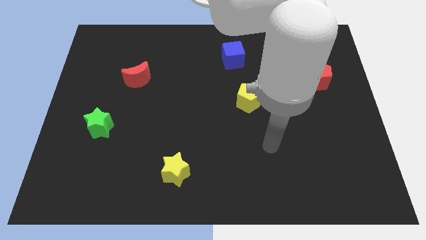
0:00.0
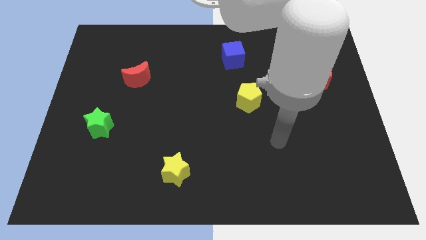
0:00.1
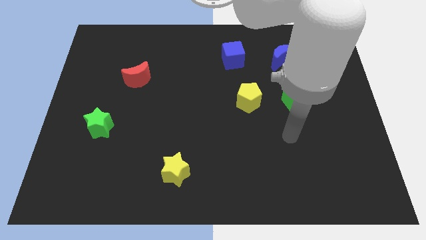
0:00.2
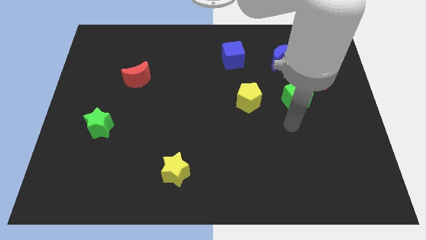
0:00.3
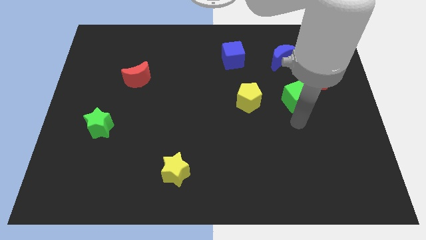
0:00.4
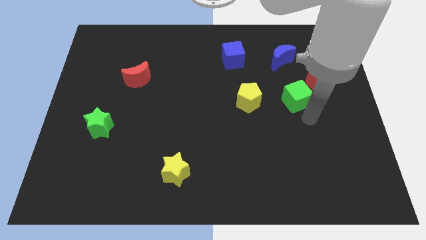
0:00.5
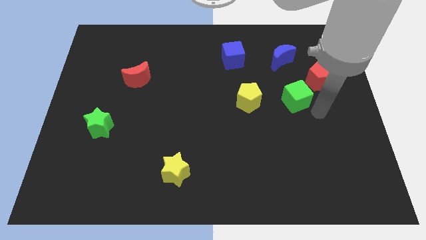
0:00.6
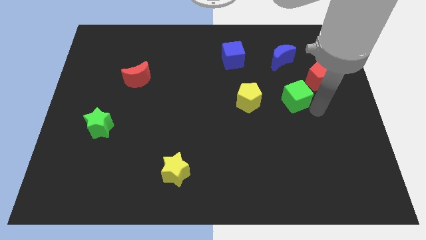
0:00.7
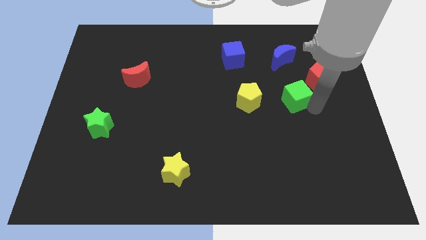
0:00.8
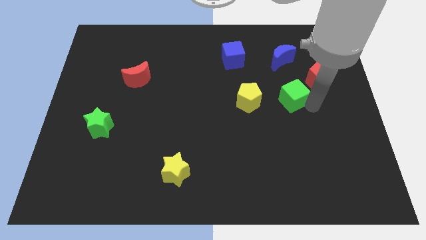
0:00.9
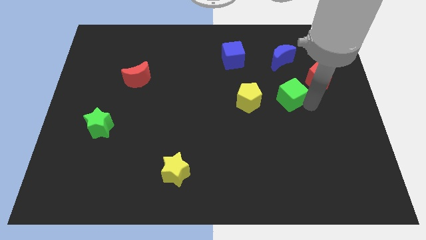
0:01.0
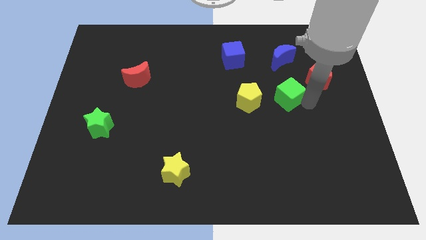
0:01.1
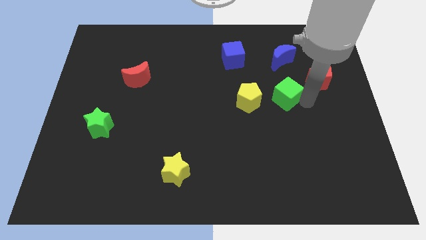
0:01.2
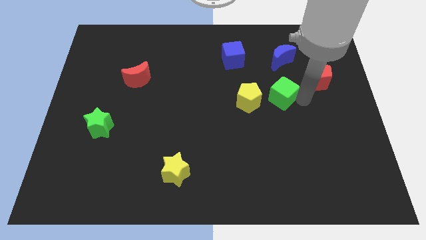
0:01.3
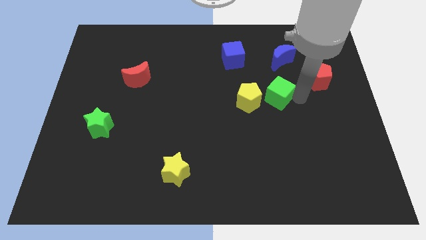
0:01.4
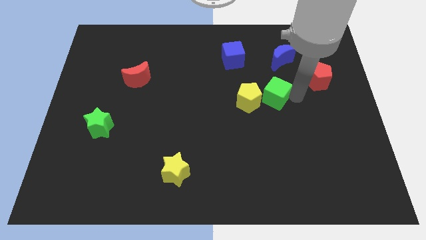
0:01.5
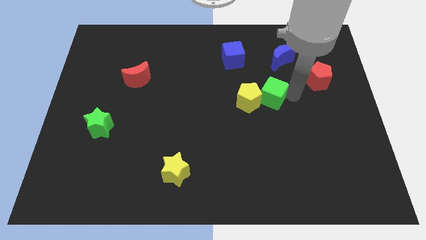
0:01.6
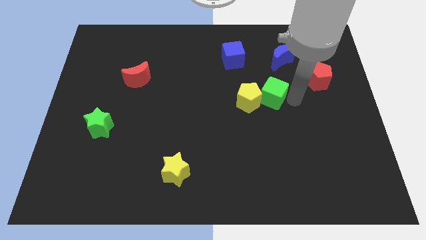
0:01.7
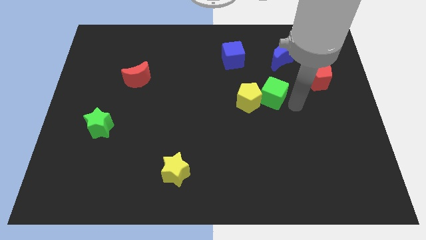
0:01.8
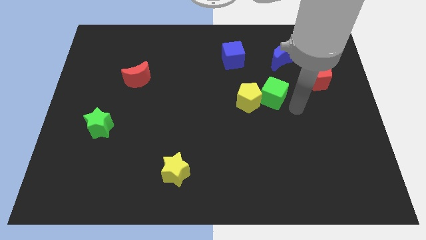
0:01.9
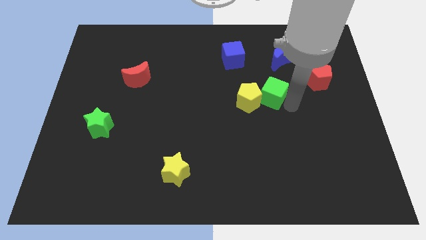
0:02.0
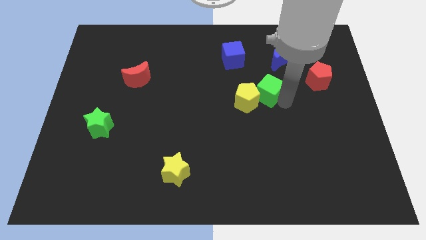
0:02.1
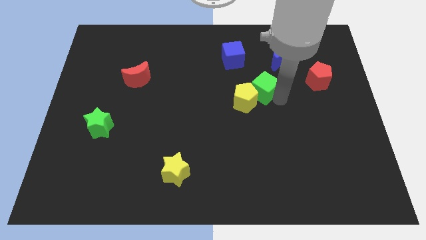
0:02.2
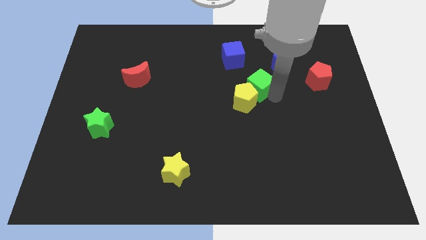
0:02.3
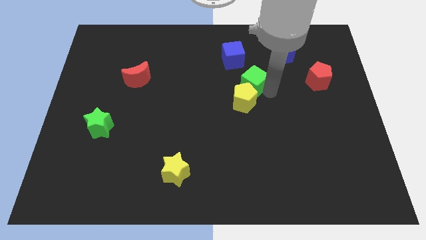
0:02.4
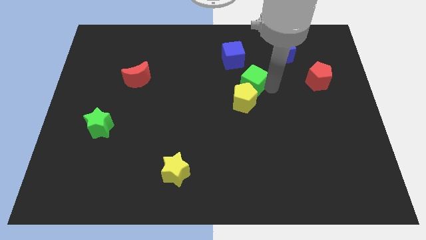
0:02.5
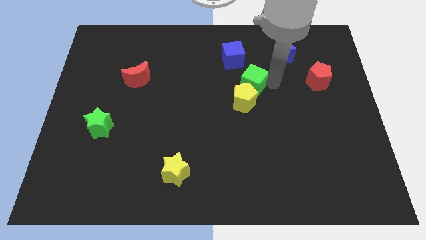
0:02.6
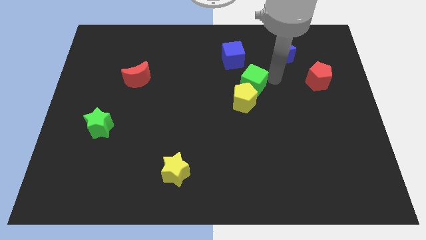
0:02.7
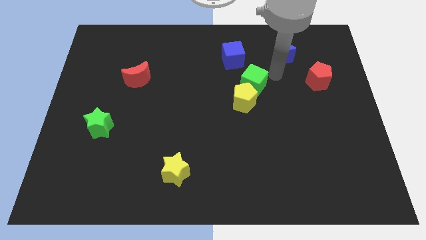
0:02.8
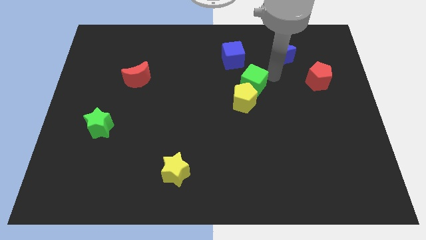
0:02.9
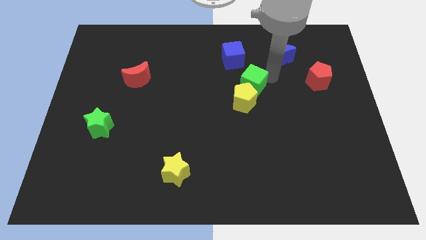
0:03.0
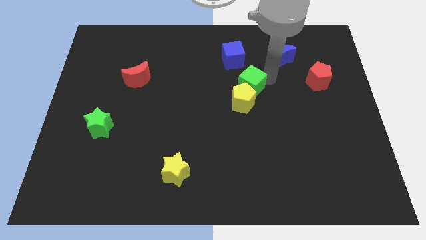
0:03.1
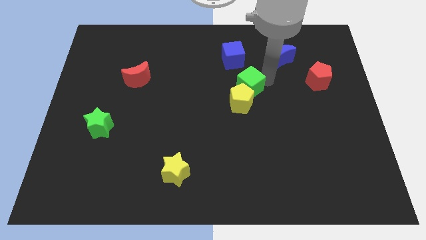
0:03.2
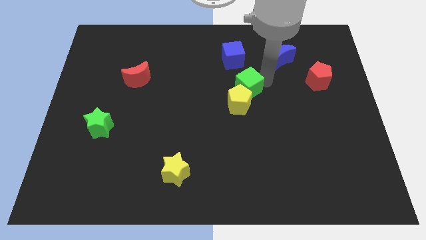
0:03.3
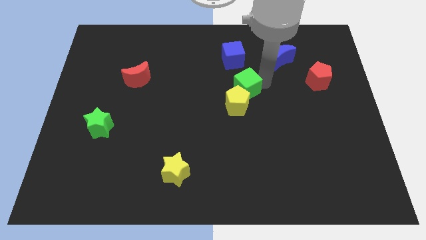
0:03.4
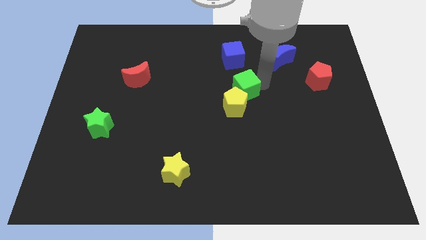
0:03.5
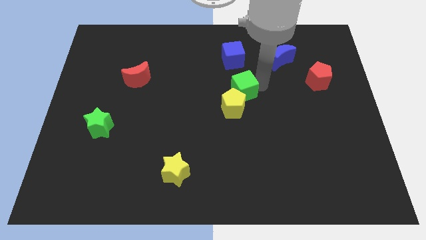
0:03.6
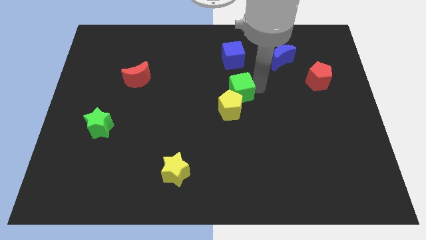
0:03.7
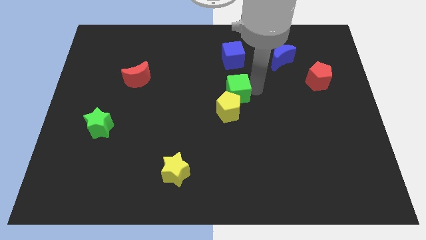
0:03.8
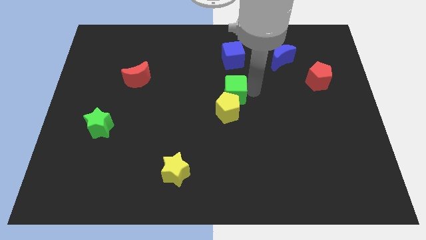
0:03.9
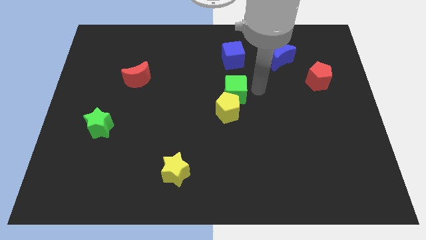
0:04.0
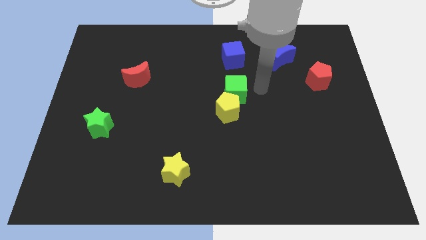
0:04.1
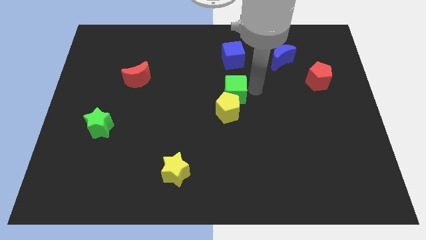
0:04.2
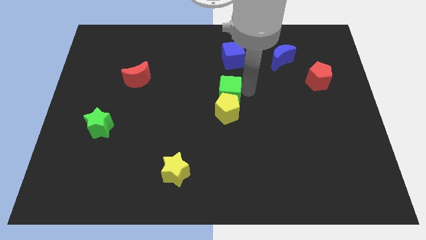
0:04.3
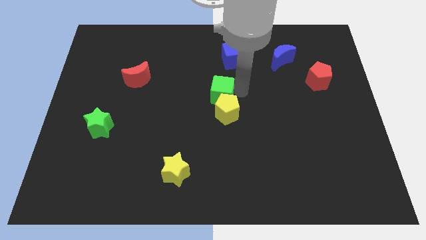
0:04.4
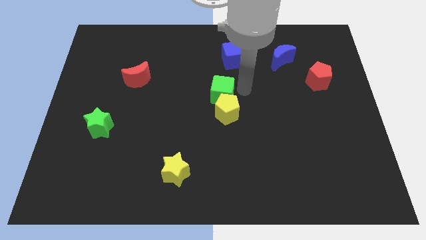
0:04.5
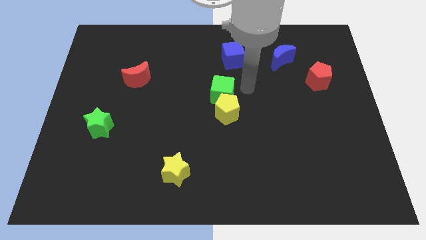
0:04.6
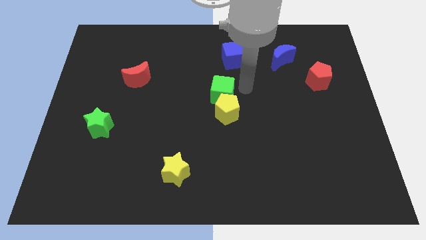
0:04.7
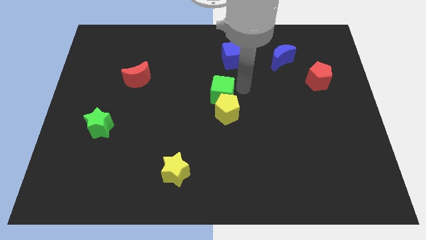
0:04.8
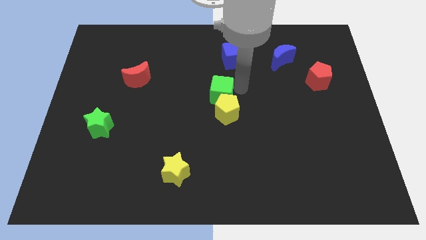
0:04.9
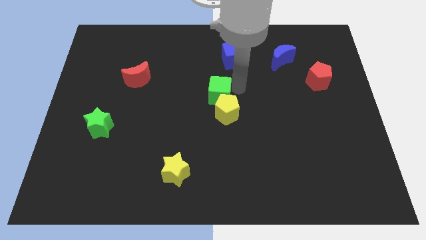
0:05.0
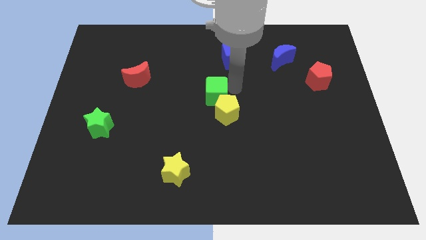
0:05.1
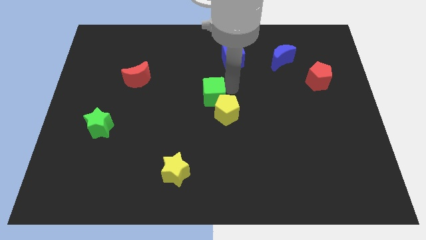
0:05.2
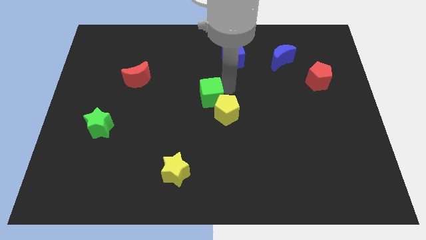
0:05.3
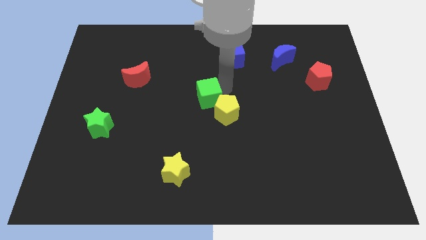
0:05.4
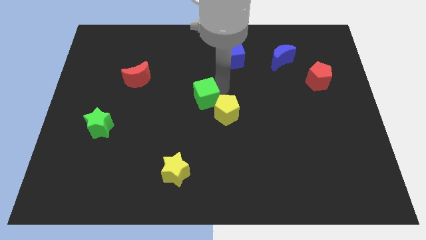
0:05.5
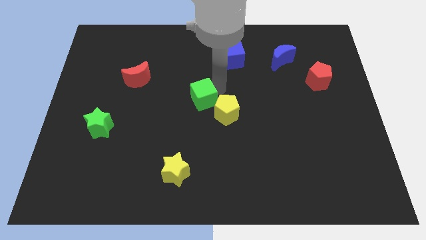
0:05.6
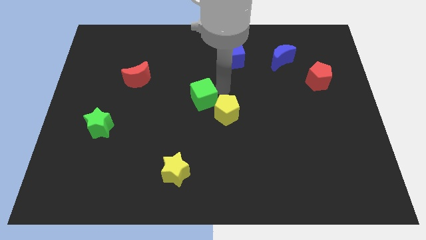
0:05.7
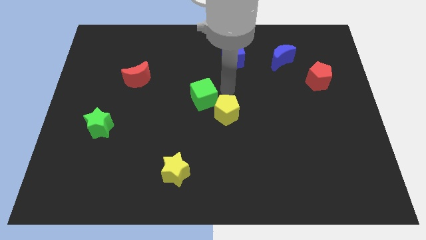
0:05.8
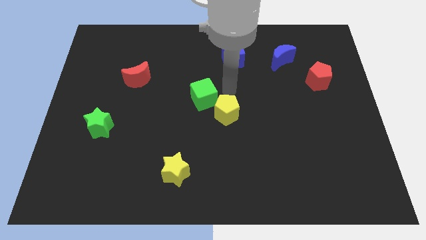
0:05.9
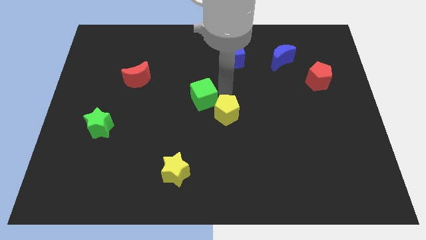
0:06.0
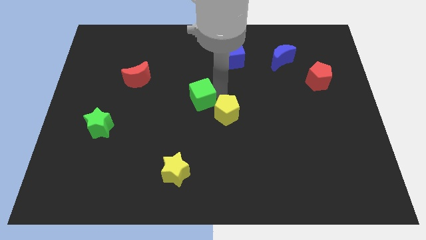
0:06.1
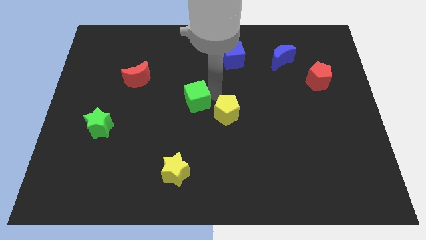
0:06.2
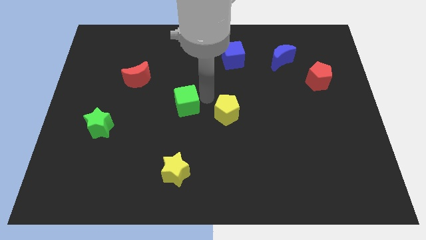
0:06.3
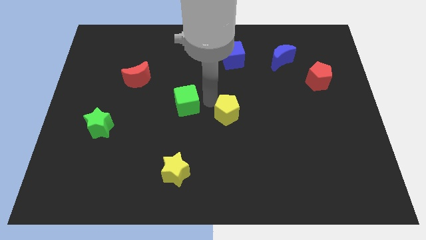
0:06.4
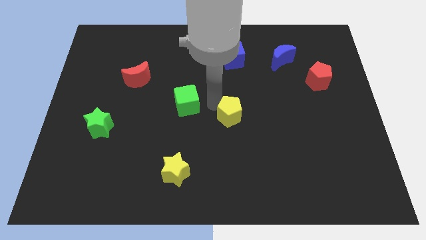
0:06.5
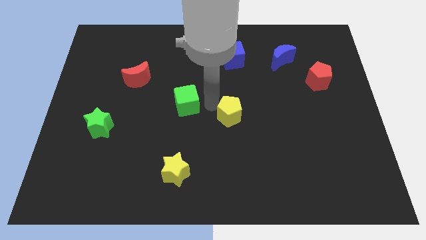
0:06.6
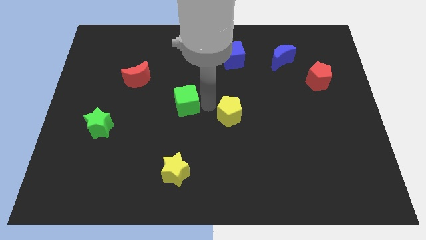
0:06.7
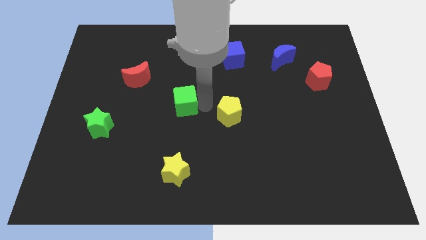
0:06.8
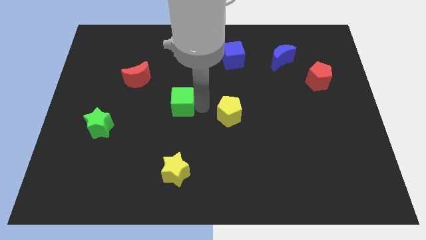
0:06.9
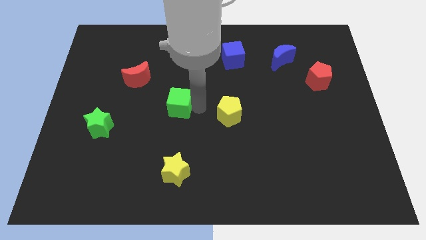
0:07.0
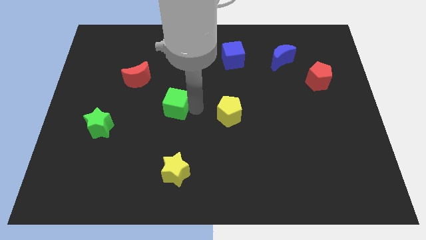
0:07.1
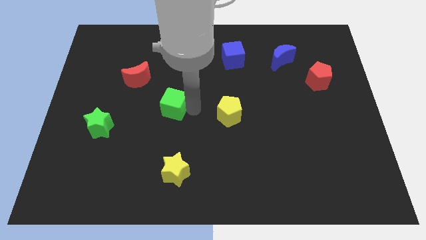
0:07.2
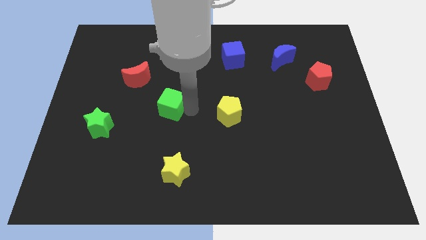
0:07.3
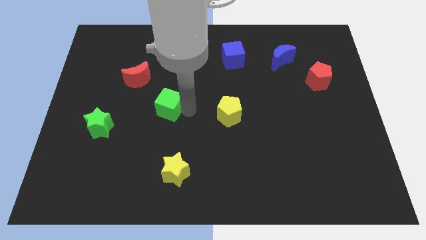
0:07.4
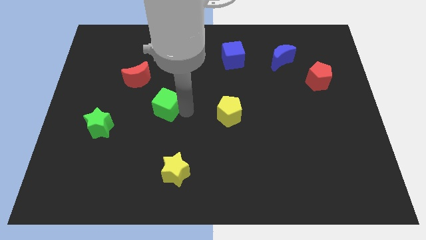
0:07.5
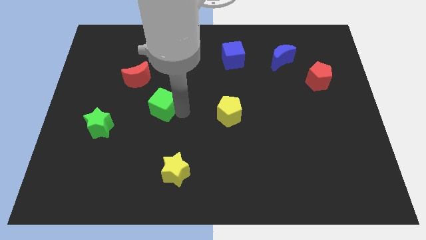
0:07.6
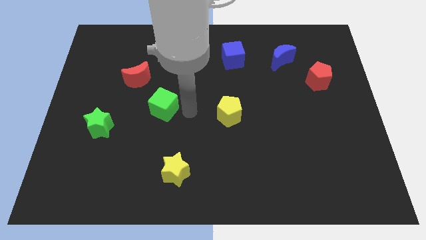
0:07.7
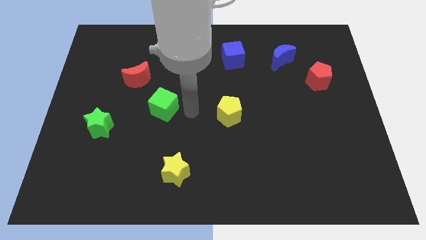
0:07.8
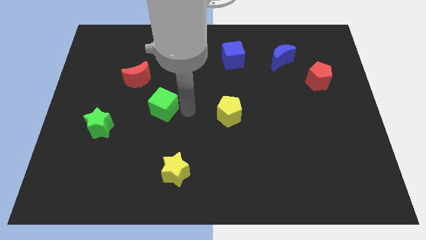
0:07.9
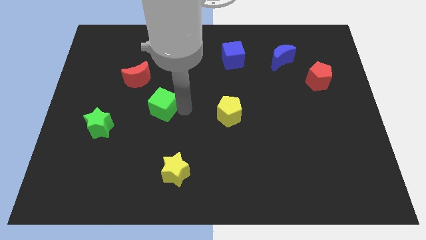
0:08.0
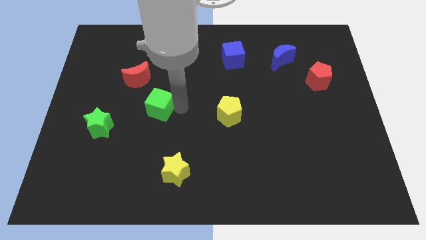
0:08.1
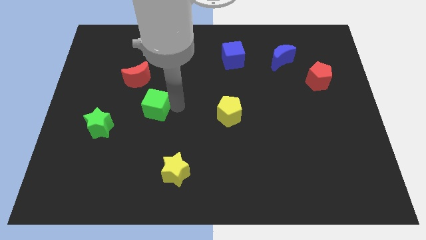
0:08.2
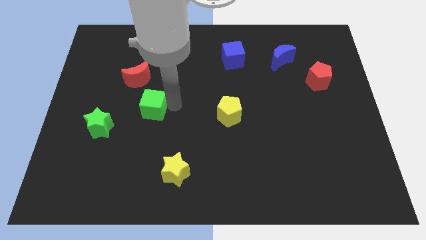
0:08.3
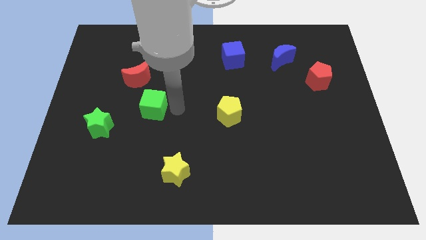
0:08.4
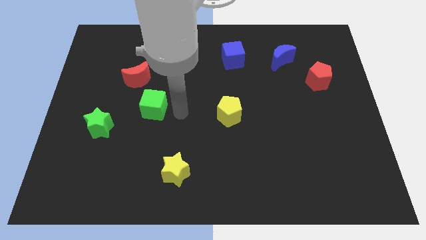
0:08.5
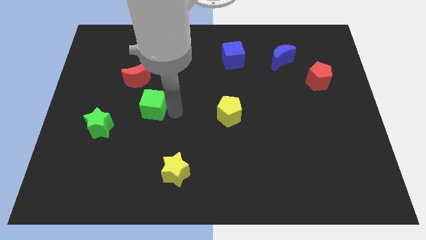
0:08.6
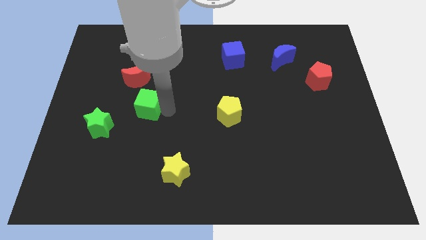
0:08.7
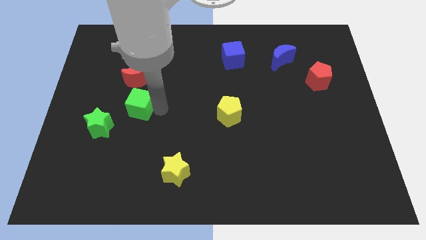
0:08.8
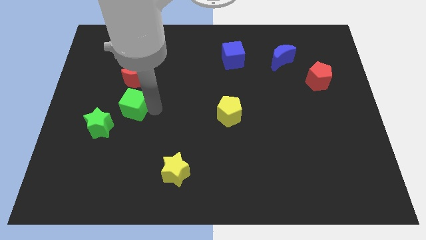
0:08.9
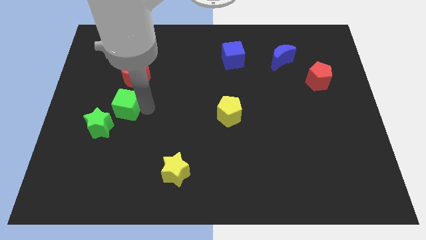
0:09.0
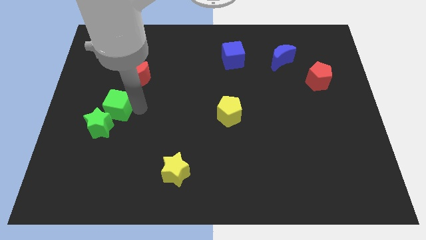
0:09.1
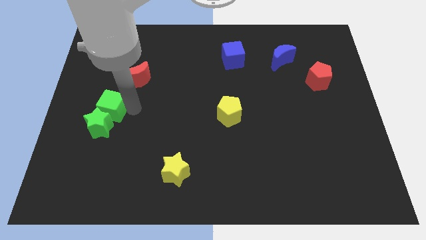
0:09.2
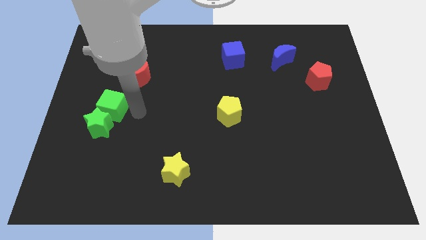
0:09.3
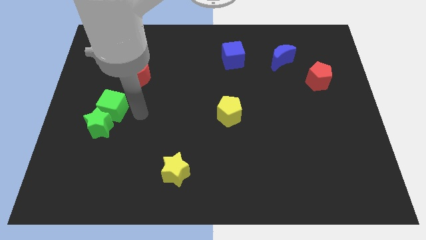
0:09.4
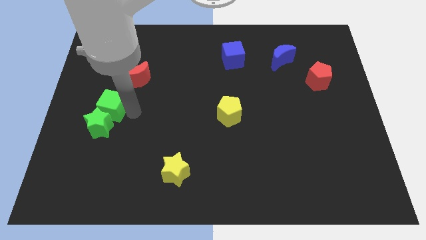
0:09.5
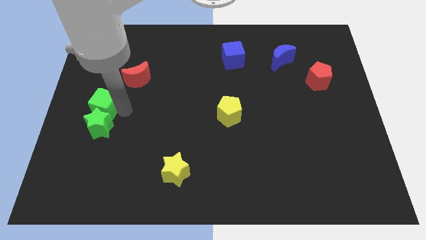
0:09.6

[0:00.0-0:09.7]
put the green cube to the left side
